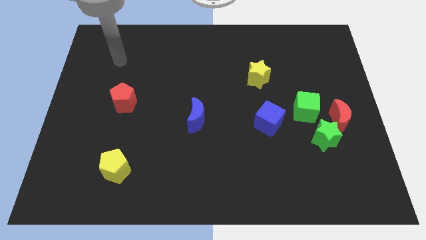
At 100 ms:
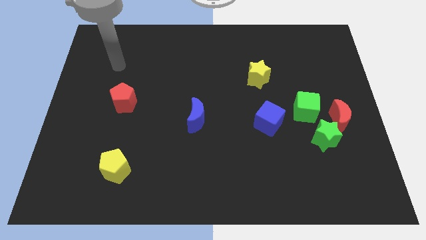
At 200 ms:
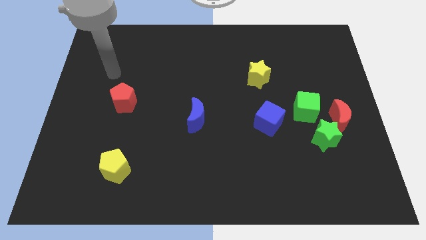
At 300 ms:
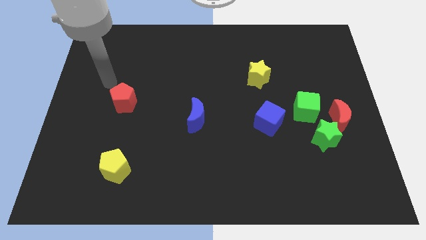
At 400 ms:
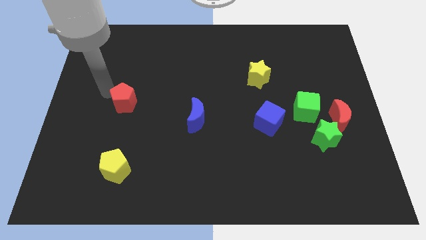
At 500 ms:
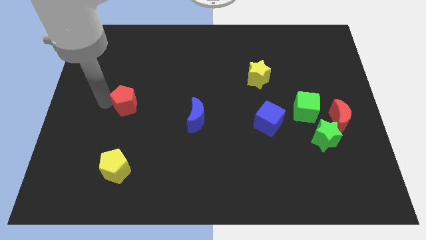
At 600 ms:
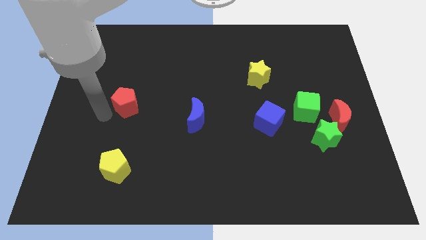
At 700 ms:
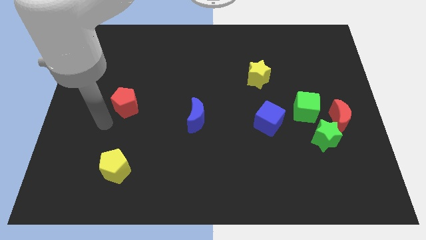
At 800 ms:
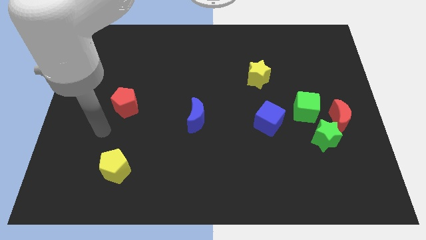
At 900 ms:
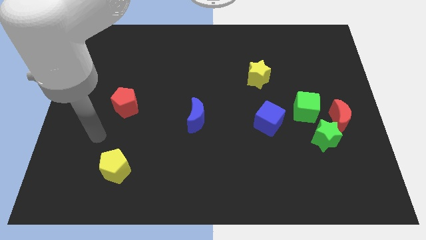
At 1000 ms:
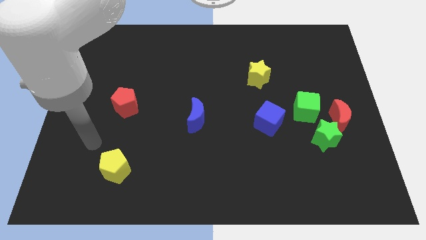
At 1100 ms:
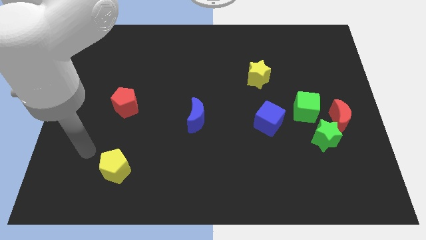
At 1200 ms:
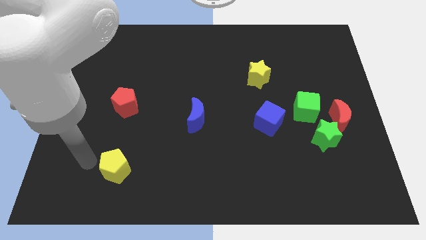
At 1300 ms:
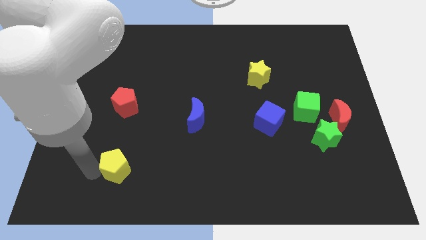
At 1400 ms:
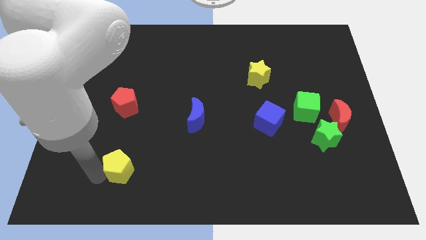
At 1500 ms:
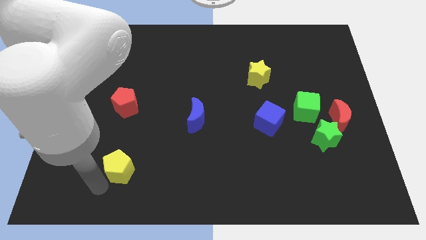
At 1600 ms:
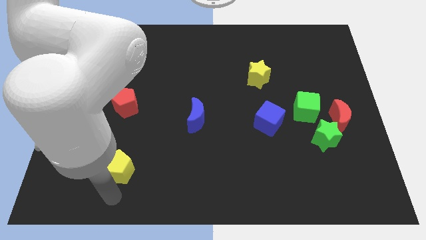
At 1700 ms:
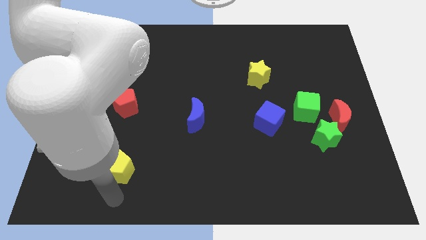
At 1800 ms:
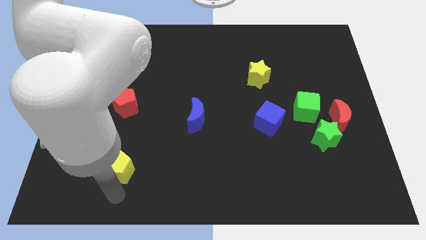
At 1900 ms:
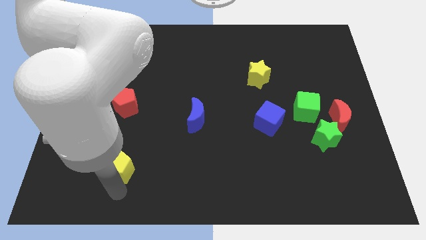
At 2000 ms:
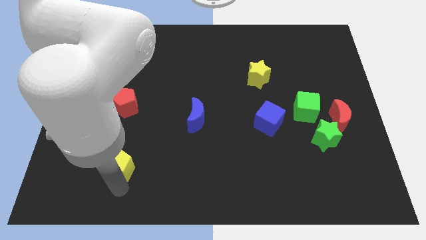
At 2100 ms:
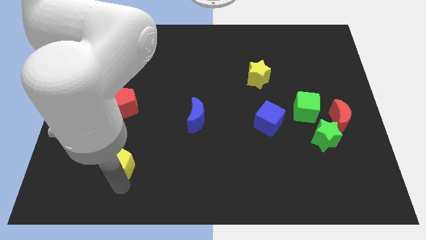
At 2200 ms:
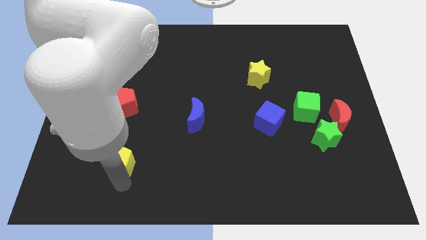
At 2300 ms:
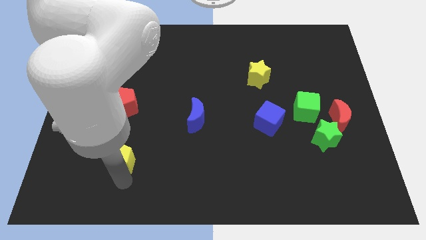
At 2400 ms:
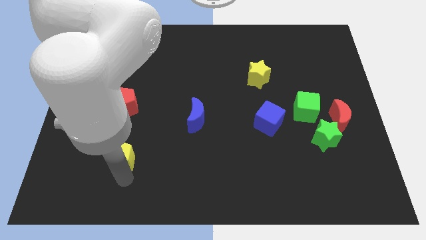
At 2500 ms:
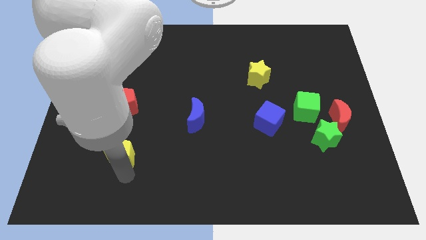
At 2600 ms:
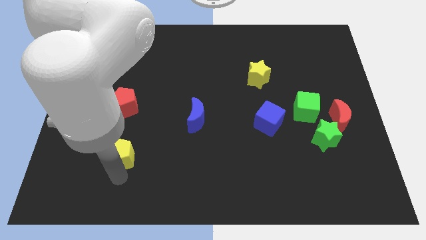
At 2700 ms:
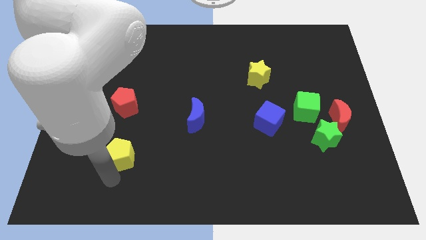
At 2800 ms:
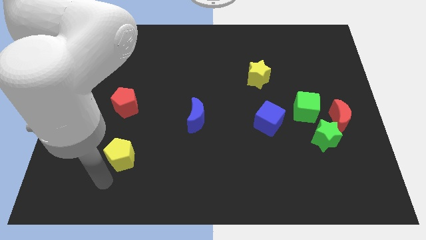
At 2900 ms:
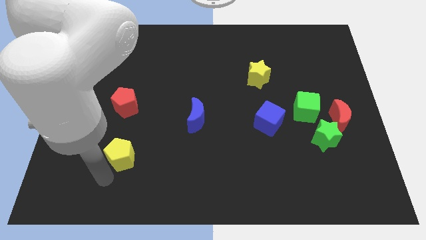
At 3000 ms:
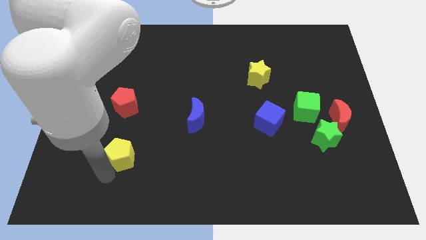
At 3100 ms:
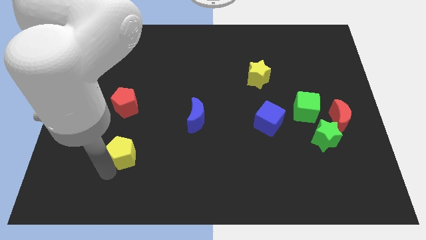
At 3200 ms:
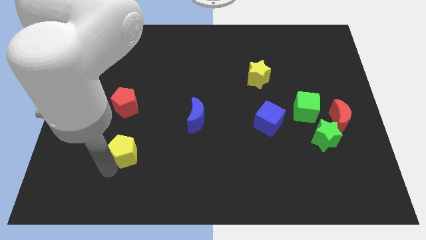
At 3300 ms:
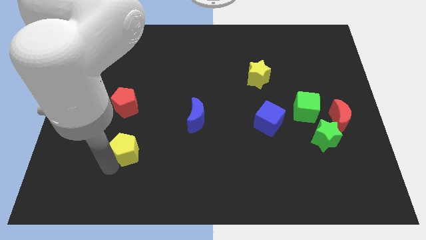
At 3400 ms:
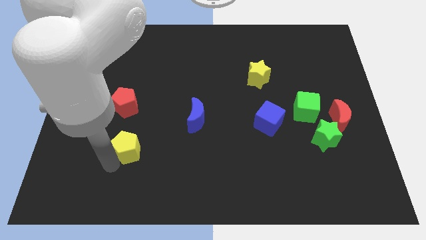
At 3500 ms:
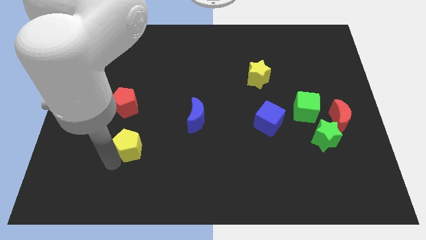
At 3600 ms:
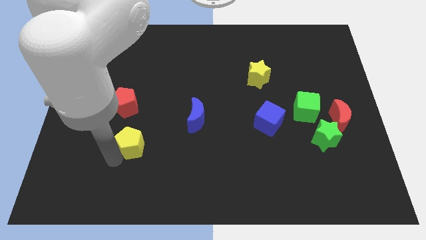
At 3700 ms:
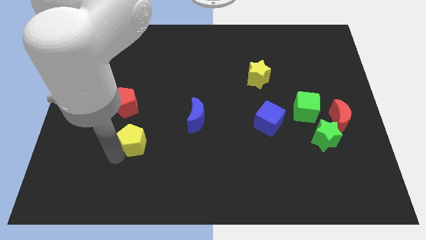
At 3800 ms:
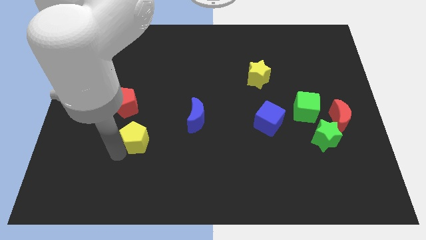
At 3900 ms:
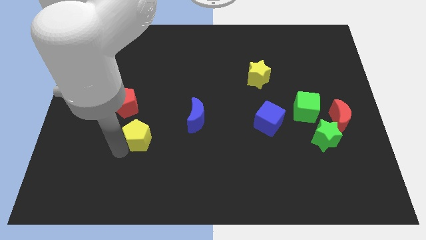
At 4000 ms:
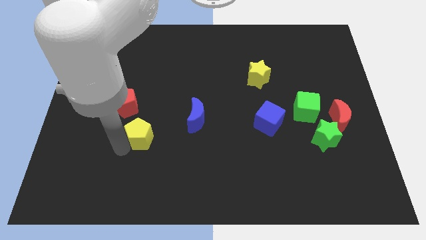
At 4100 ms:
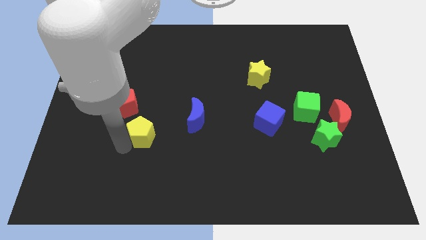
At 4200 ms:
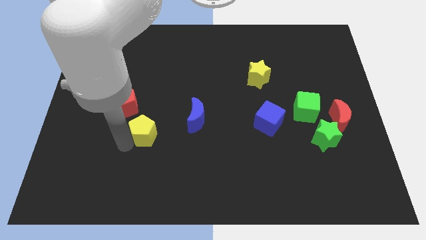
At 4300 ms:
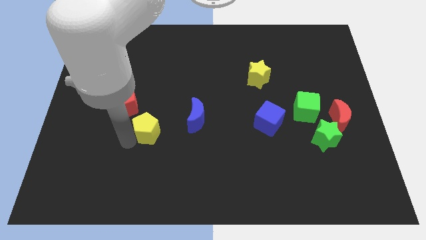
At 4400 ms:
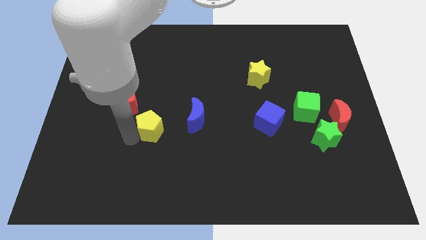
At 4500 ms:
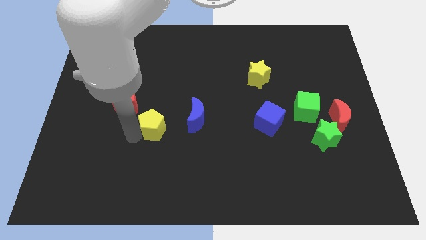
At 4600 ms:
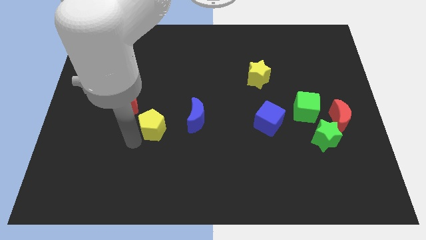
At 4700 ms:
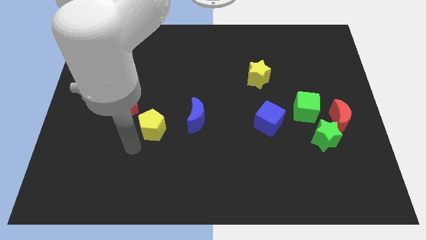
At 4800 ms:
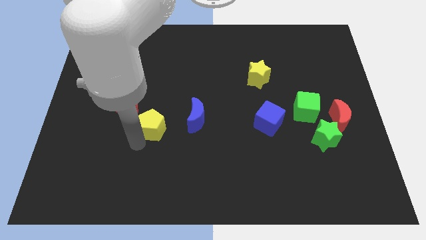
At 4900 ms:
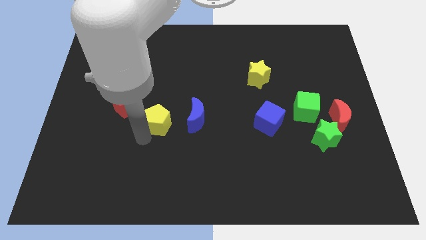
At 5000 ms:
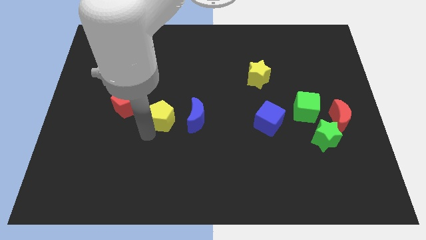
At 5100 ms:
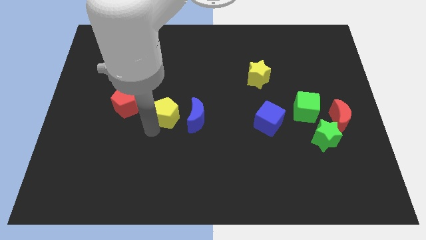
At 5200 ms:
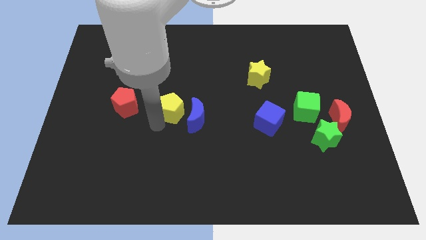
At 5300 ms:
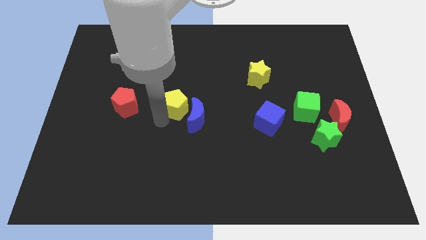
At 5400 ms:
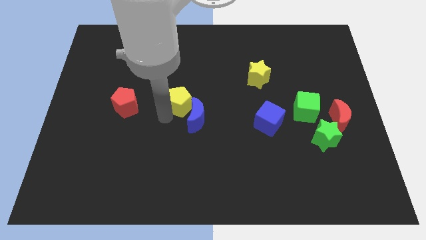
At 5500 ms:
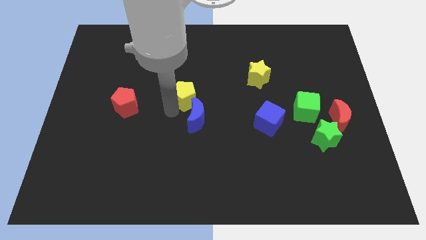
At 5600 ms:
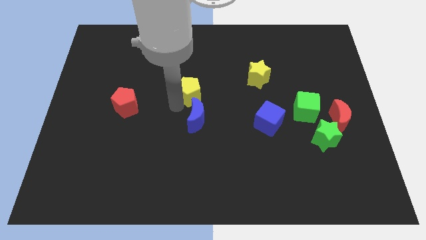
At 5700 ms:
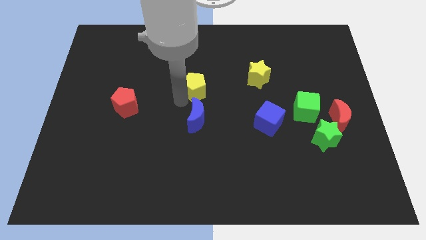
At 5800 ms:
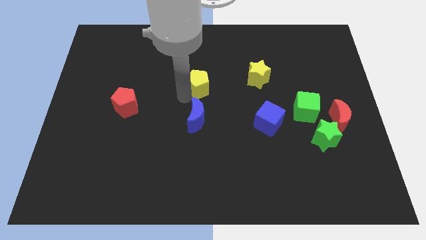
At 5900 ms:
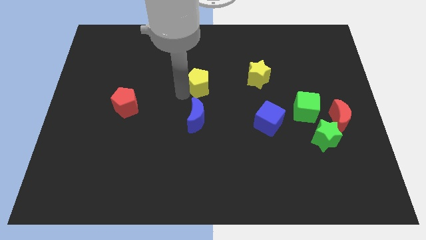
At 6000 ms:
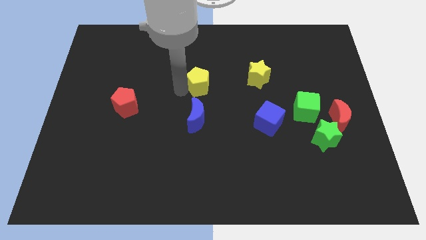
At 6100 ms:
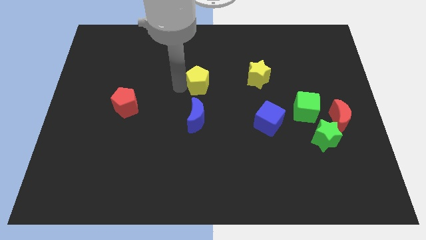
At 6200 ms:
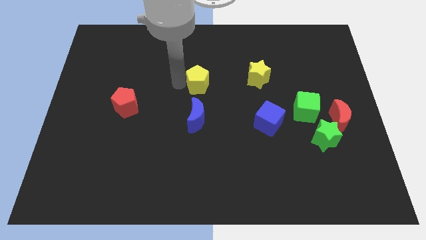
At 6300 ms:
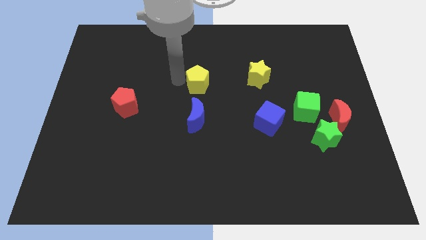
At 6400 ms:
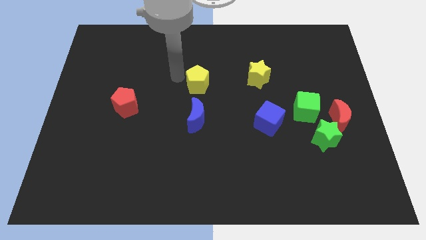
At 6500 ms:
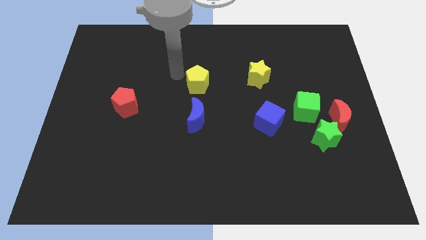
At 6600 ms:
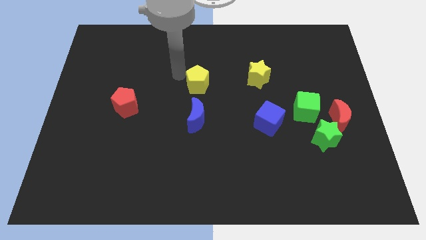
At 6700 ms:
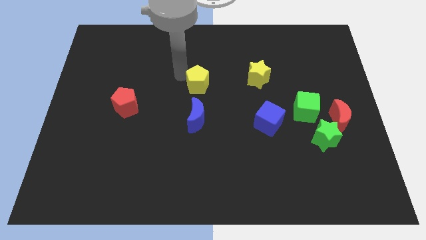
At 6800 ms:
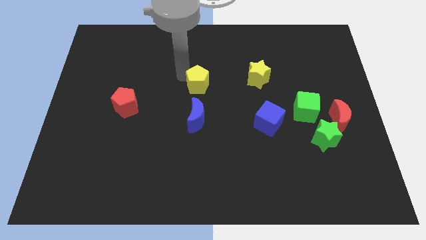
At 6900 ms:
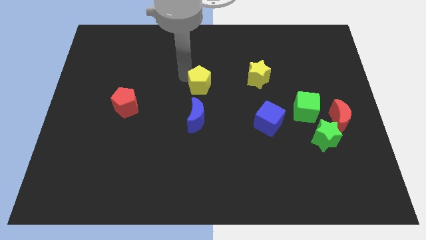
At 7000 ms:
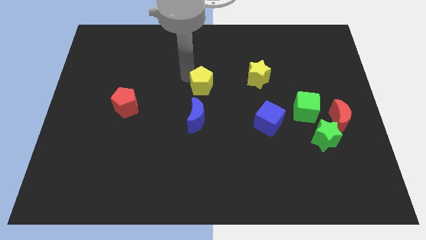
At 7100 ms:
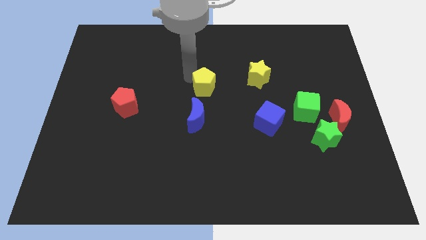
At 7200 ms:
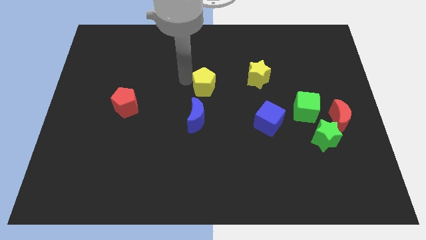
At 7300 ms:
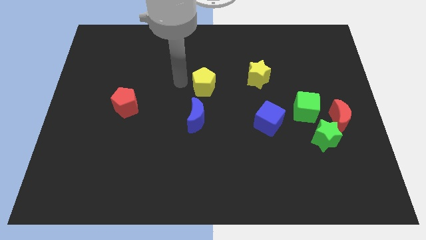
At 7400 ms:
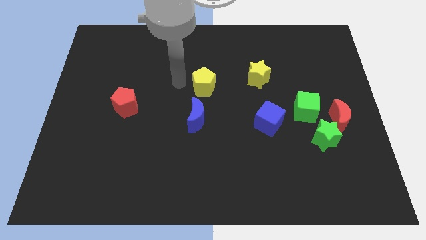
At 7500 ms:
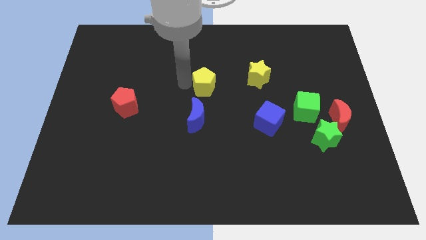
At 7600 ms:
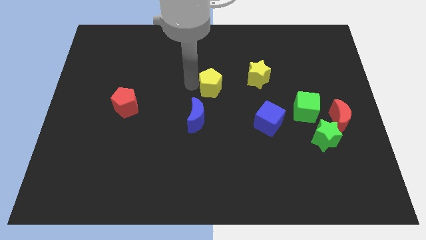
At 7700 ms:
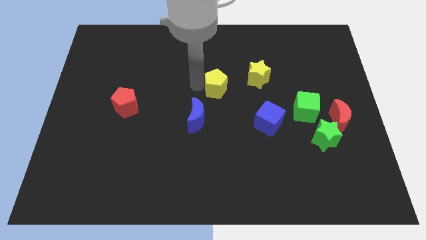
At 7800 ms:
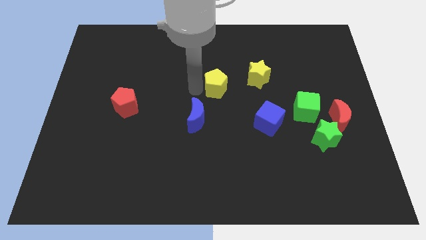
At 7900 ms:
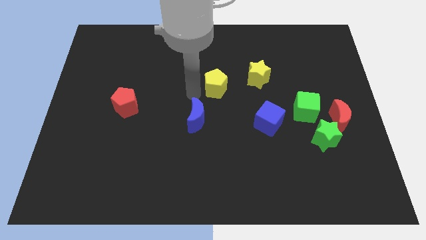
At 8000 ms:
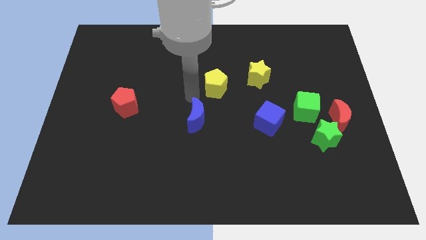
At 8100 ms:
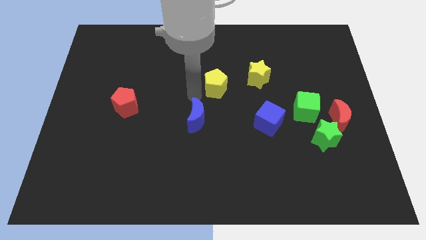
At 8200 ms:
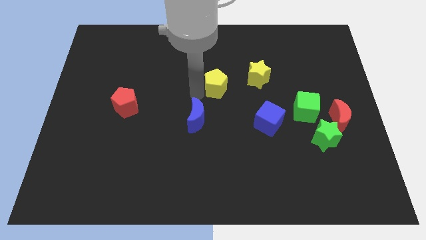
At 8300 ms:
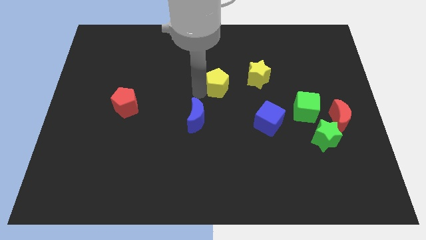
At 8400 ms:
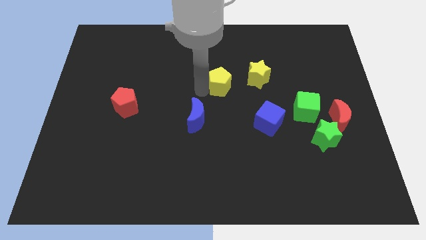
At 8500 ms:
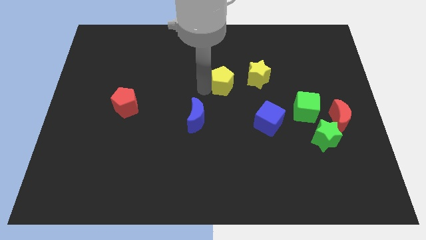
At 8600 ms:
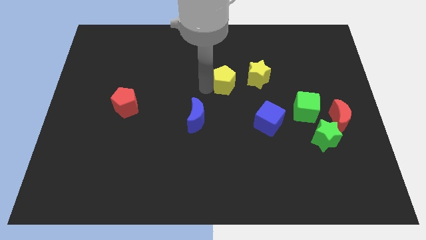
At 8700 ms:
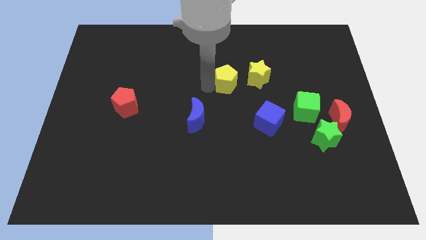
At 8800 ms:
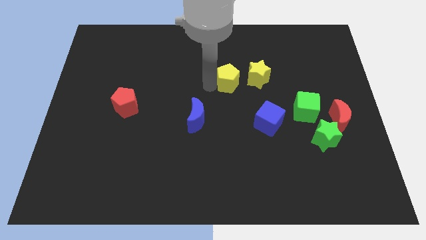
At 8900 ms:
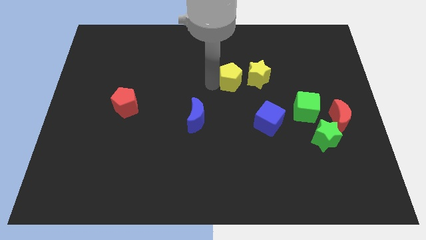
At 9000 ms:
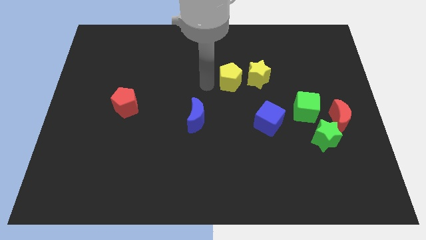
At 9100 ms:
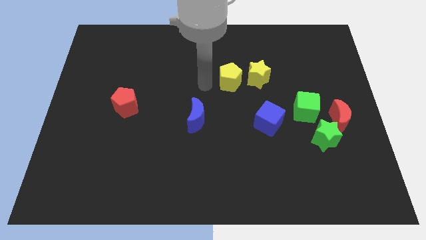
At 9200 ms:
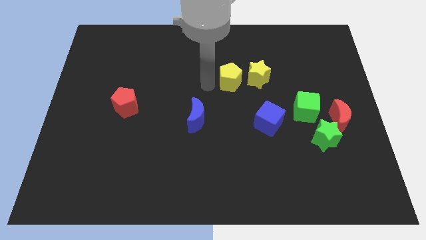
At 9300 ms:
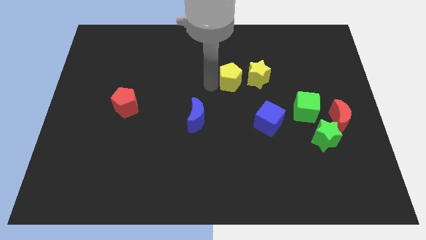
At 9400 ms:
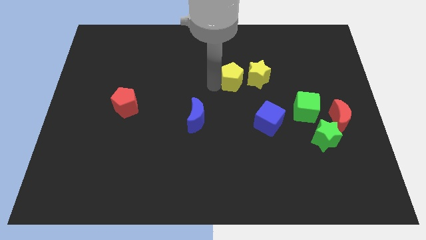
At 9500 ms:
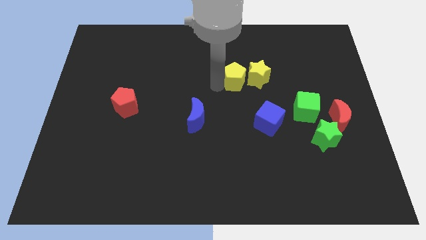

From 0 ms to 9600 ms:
slide the yellow pentagon next to the yellow star
